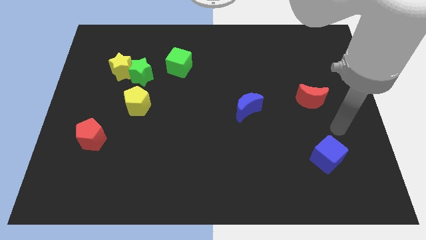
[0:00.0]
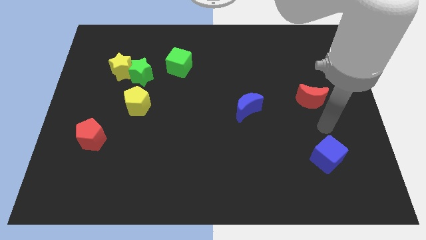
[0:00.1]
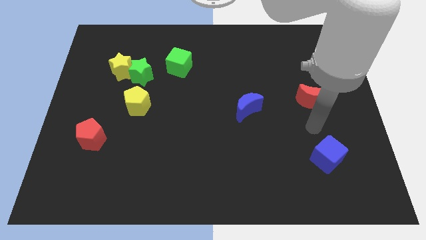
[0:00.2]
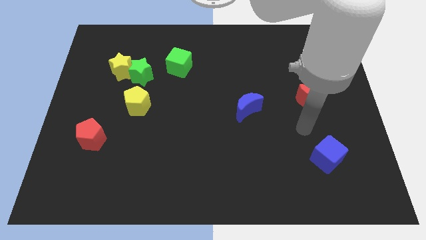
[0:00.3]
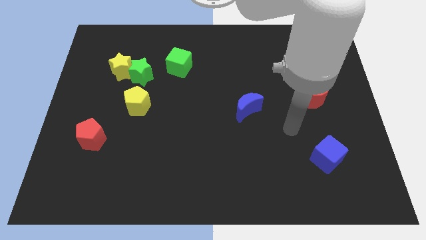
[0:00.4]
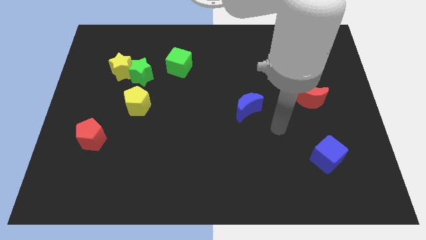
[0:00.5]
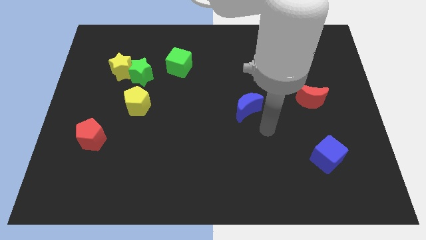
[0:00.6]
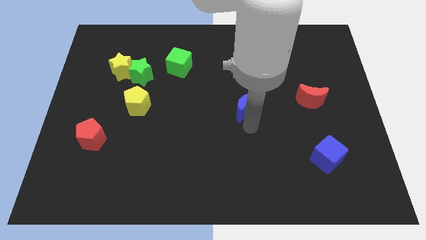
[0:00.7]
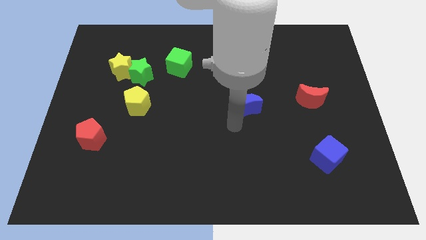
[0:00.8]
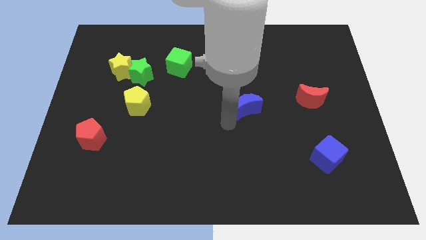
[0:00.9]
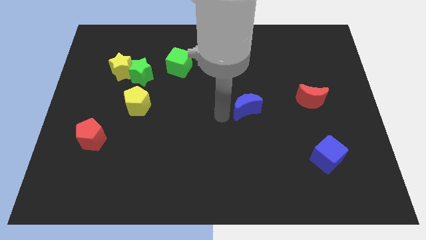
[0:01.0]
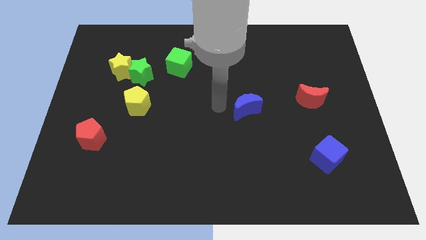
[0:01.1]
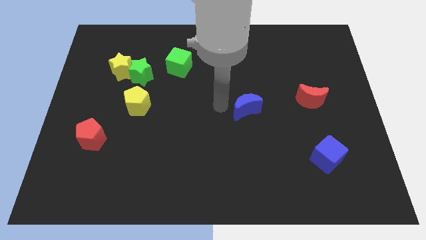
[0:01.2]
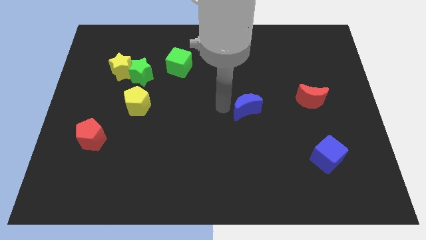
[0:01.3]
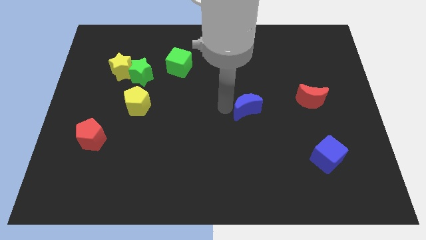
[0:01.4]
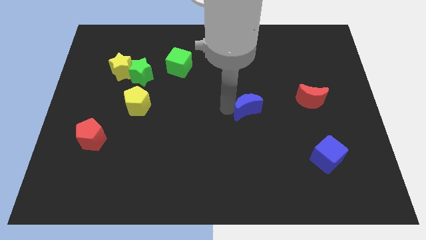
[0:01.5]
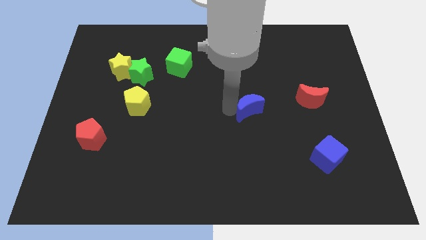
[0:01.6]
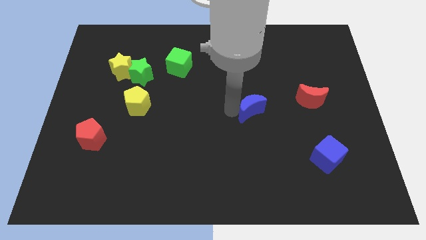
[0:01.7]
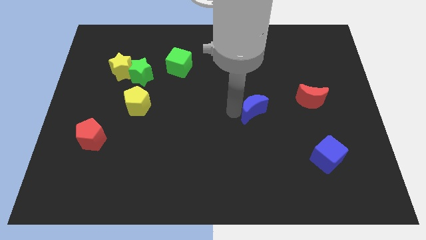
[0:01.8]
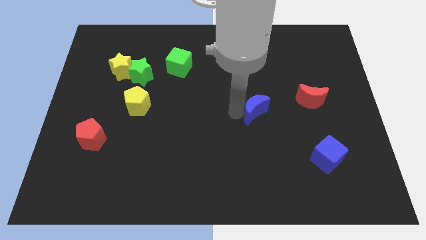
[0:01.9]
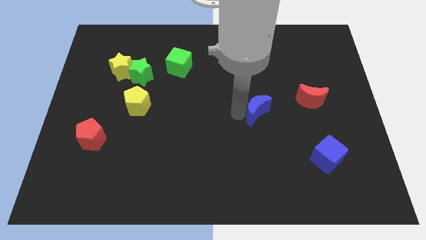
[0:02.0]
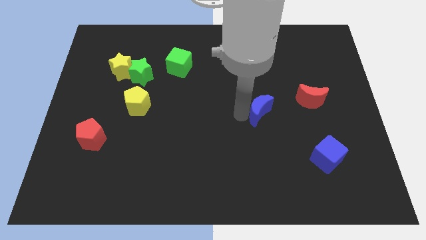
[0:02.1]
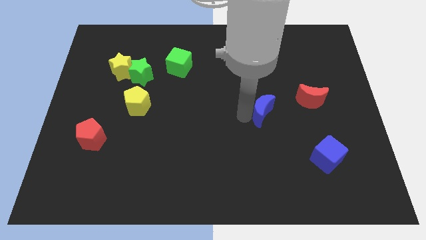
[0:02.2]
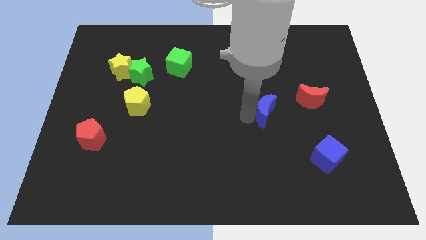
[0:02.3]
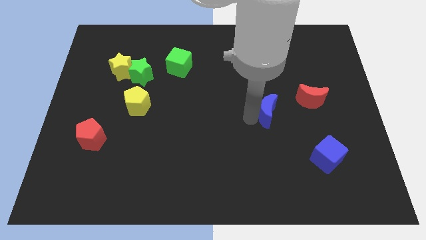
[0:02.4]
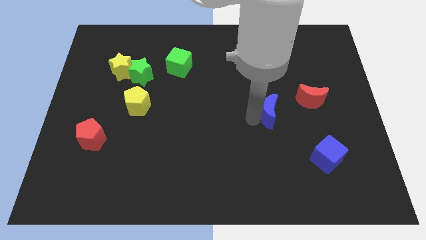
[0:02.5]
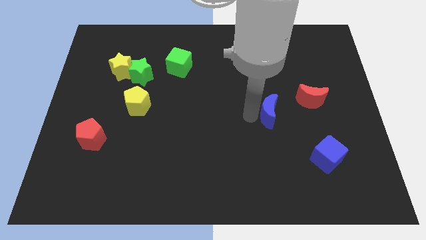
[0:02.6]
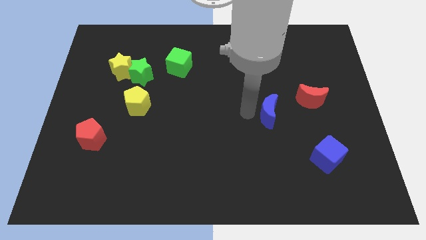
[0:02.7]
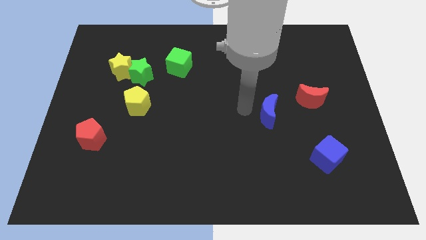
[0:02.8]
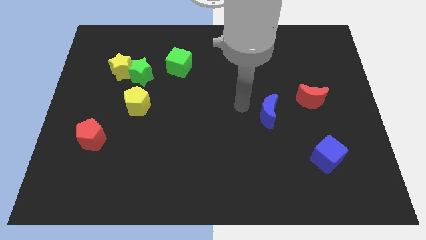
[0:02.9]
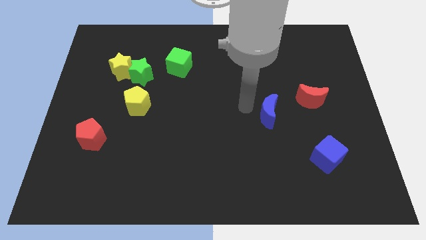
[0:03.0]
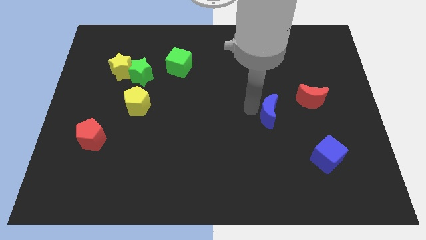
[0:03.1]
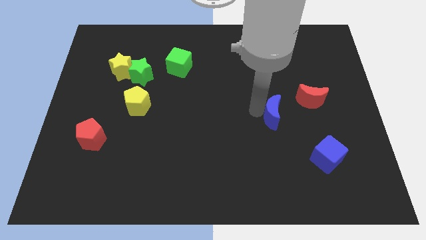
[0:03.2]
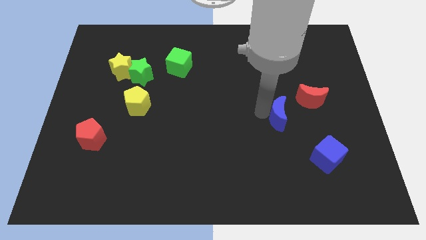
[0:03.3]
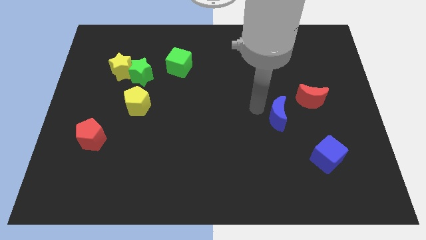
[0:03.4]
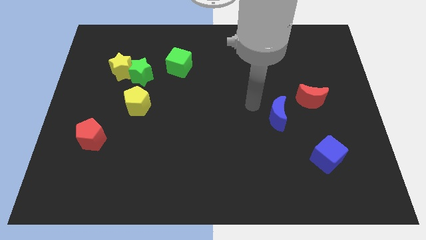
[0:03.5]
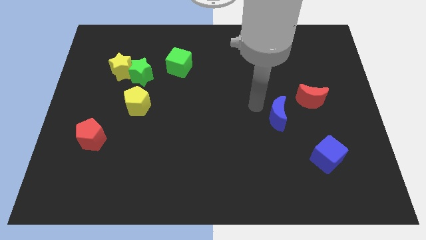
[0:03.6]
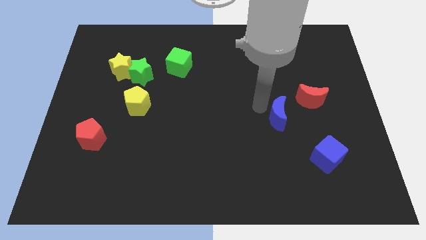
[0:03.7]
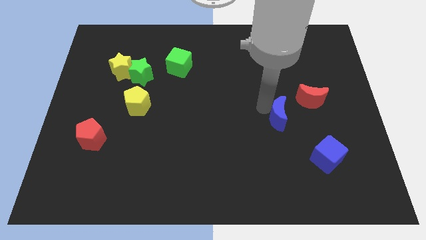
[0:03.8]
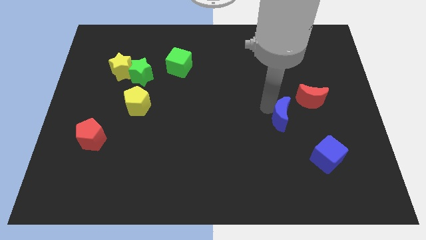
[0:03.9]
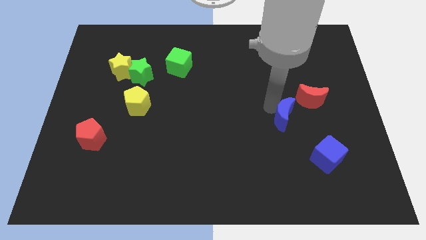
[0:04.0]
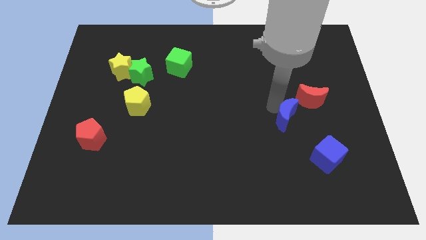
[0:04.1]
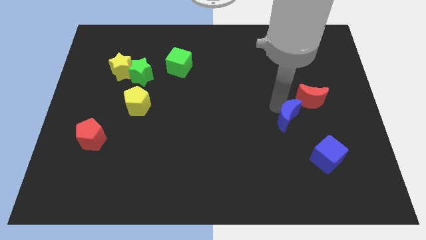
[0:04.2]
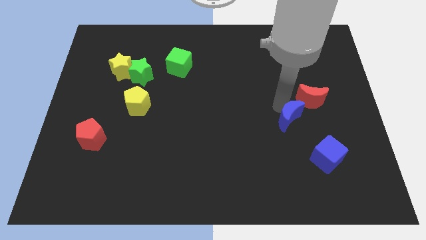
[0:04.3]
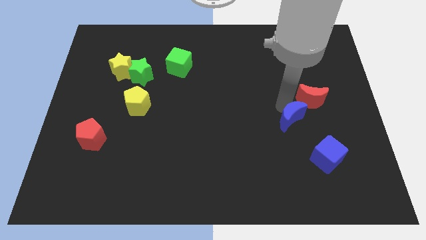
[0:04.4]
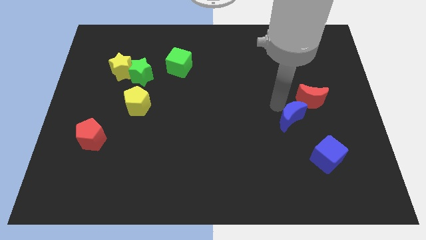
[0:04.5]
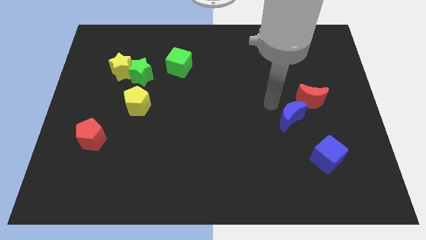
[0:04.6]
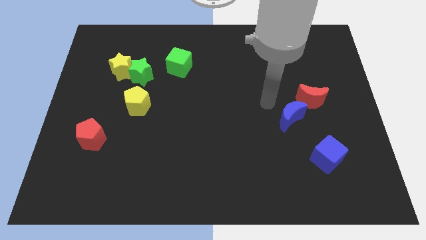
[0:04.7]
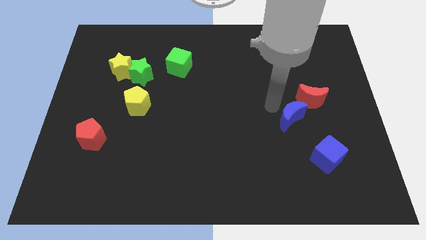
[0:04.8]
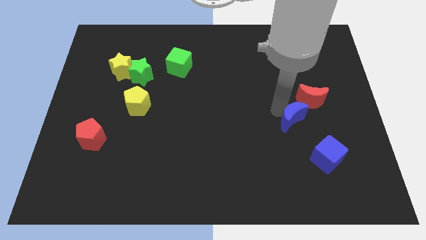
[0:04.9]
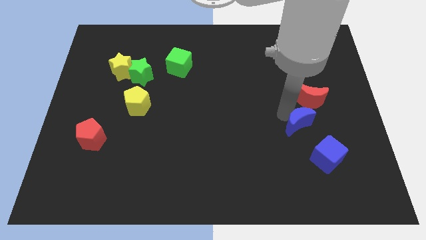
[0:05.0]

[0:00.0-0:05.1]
move the blue moon to the bottom of the red moon

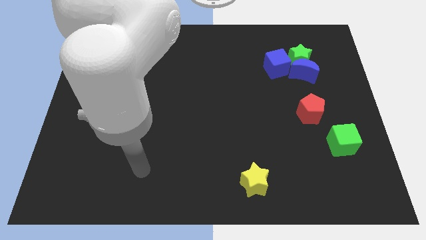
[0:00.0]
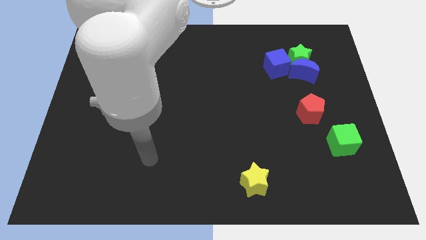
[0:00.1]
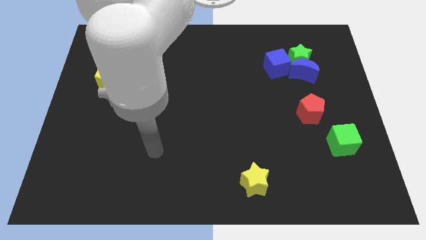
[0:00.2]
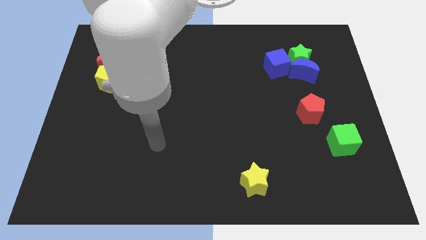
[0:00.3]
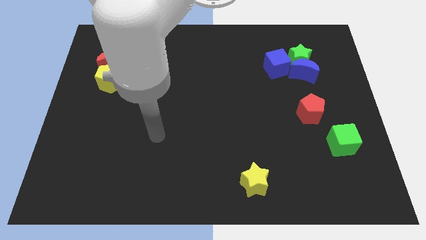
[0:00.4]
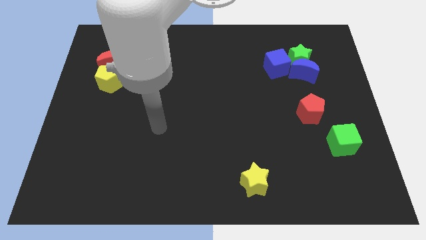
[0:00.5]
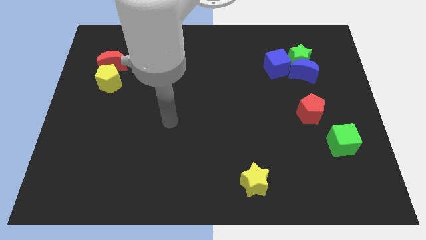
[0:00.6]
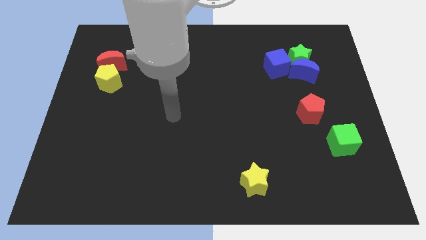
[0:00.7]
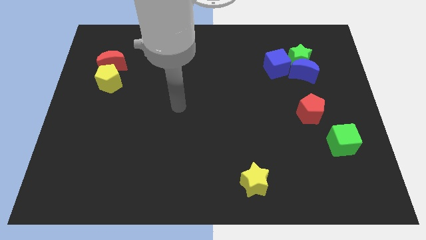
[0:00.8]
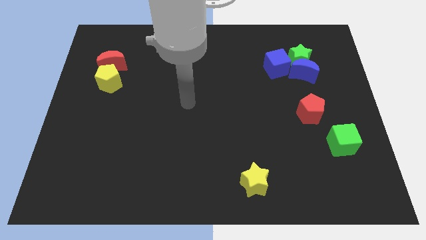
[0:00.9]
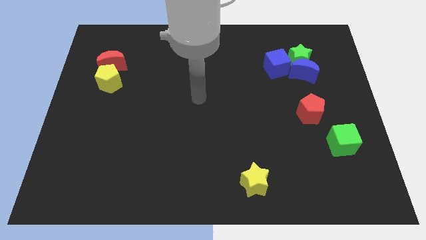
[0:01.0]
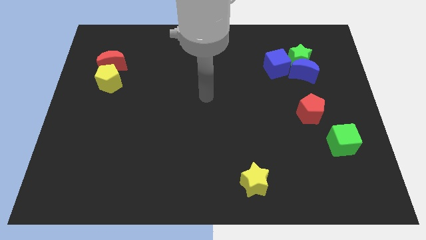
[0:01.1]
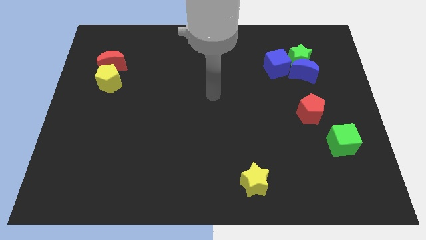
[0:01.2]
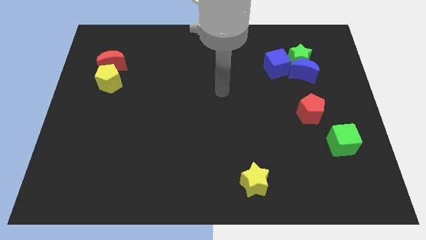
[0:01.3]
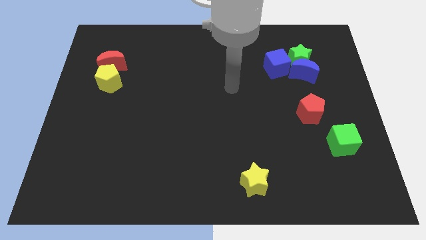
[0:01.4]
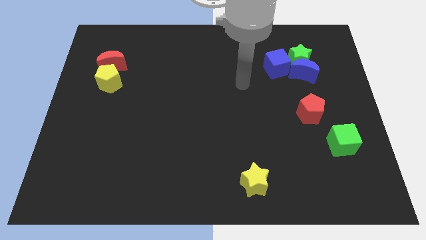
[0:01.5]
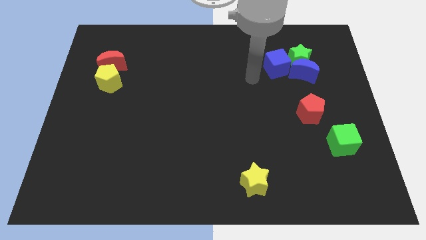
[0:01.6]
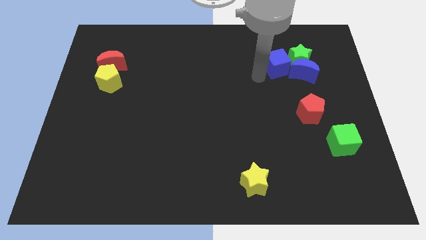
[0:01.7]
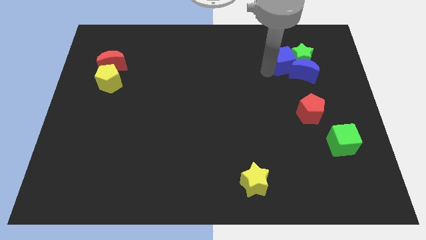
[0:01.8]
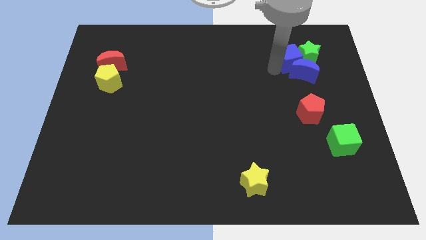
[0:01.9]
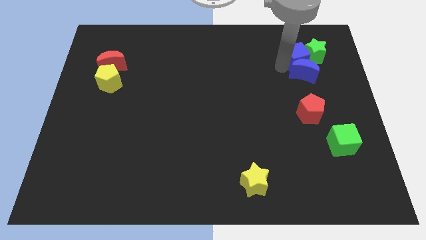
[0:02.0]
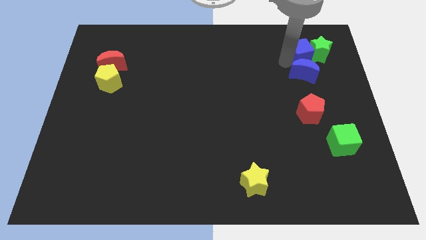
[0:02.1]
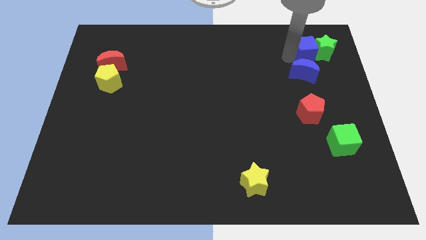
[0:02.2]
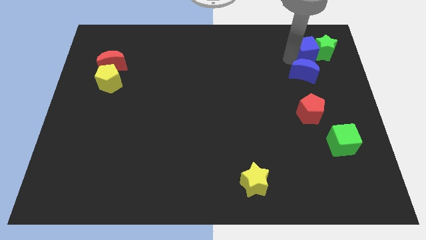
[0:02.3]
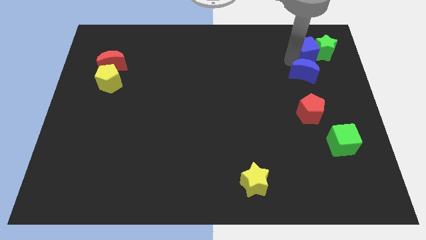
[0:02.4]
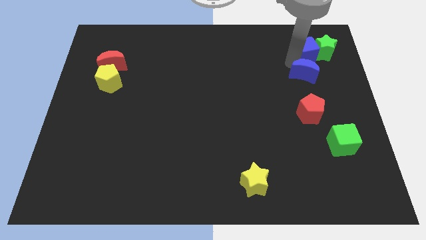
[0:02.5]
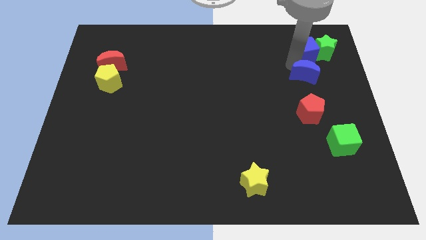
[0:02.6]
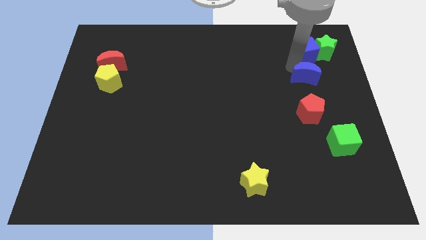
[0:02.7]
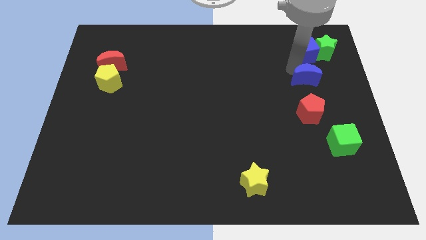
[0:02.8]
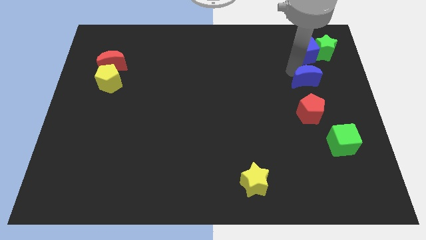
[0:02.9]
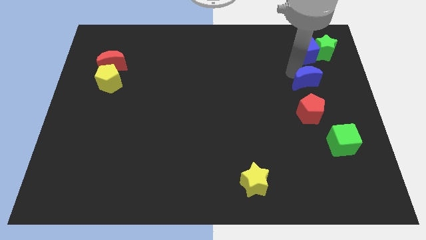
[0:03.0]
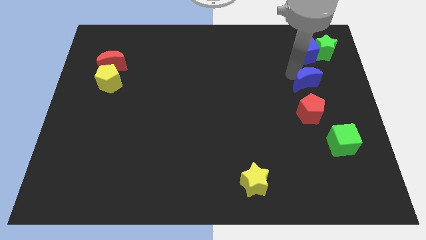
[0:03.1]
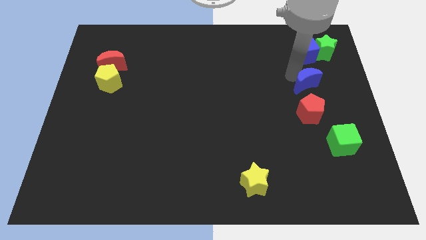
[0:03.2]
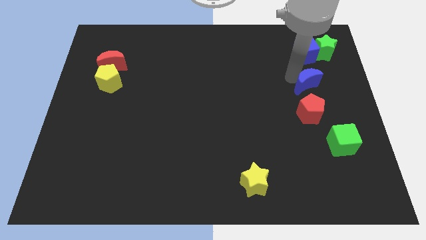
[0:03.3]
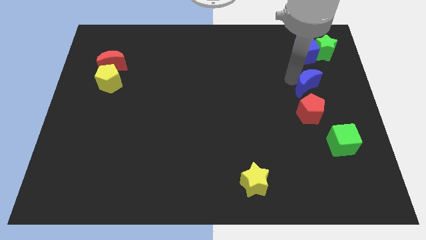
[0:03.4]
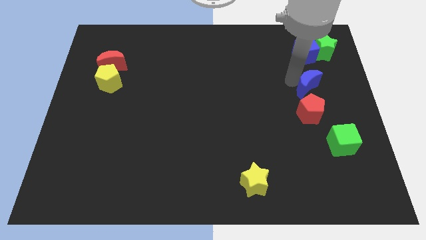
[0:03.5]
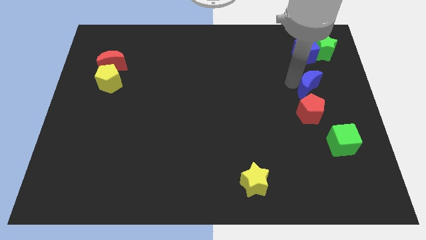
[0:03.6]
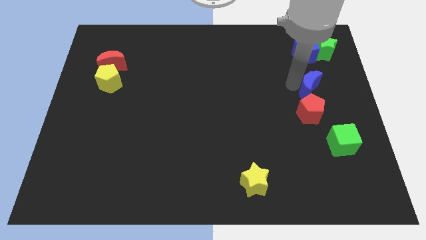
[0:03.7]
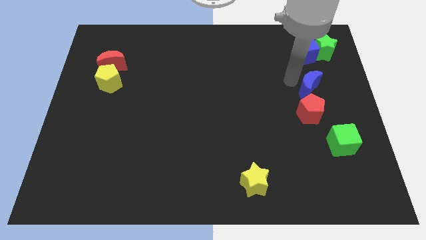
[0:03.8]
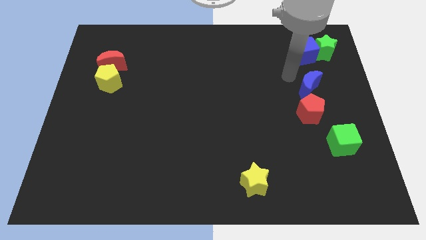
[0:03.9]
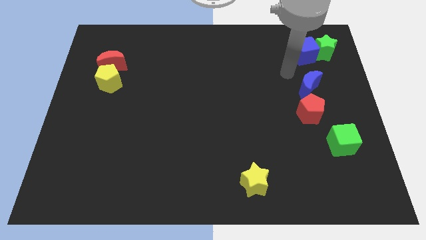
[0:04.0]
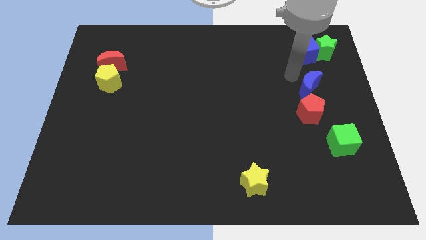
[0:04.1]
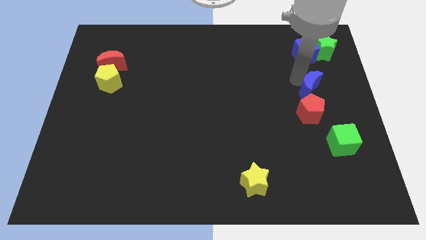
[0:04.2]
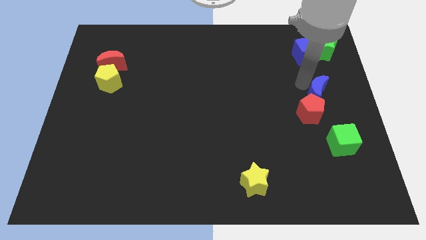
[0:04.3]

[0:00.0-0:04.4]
slide the blue moon to the top of the green cube
